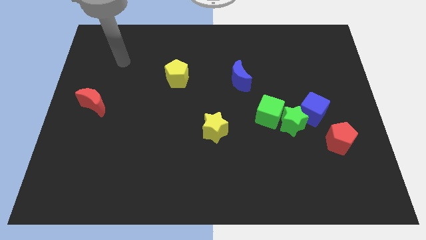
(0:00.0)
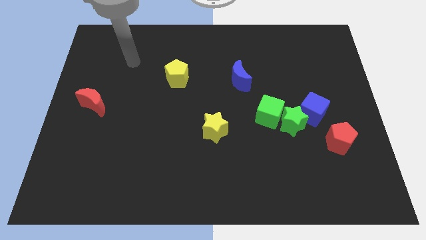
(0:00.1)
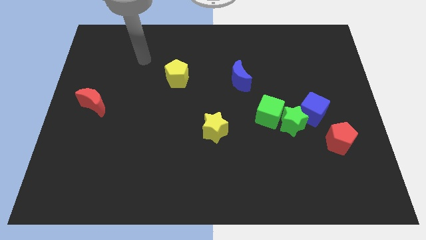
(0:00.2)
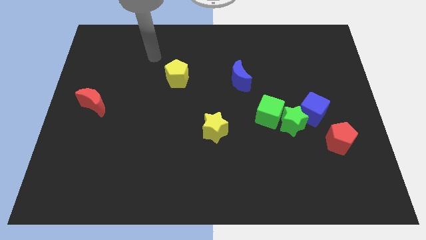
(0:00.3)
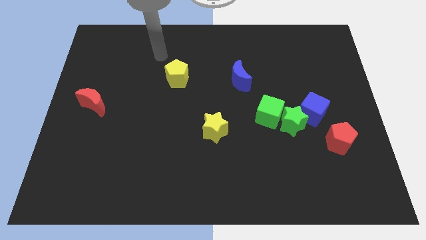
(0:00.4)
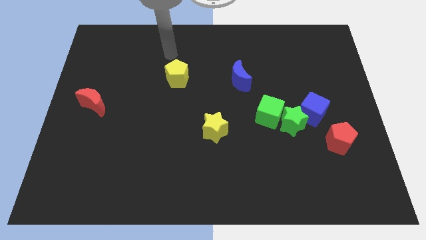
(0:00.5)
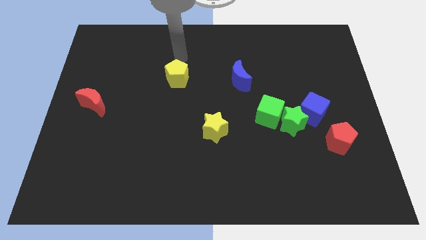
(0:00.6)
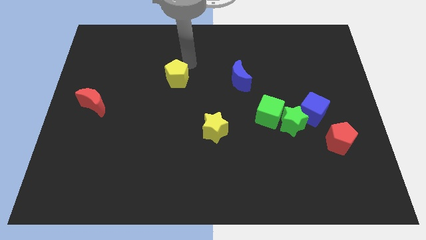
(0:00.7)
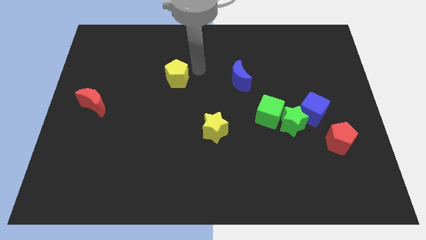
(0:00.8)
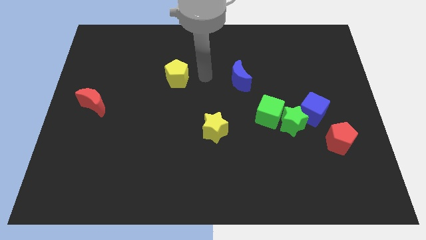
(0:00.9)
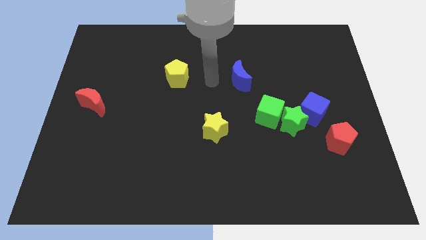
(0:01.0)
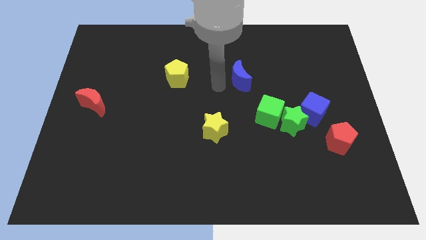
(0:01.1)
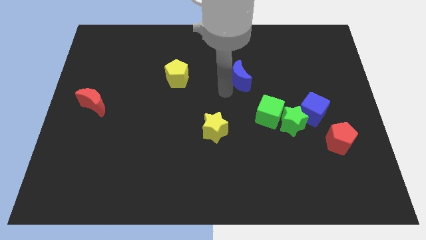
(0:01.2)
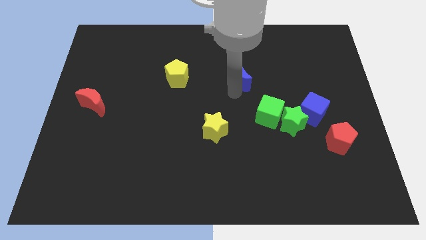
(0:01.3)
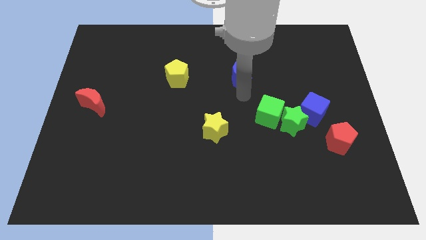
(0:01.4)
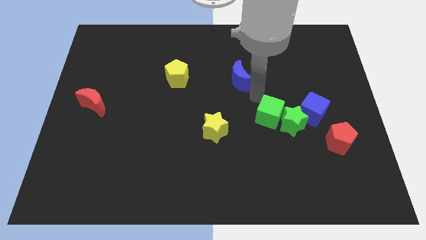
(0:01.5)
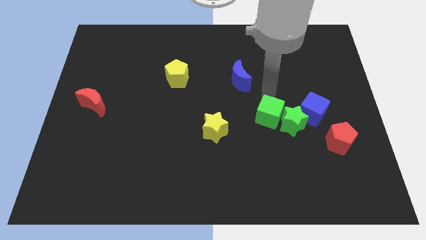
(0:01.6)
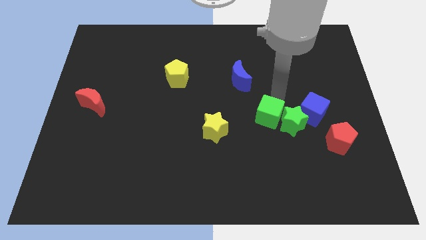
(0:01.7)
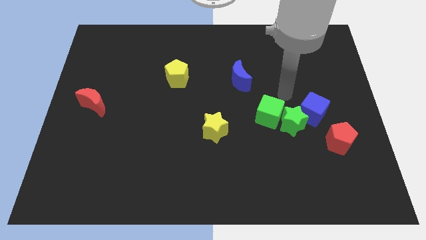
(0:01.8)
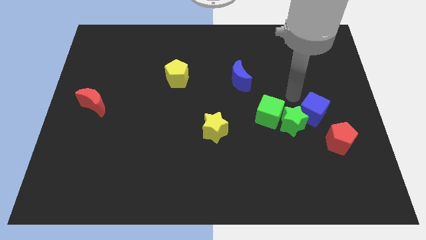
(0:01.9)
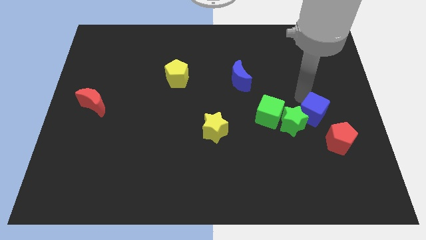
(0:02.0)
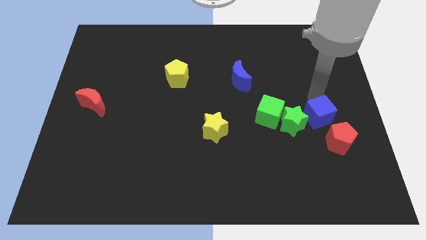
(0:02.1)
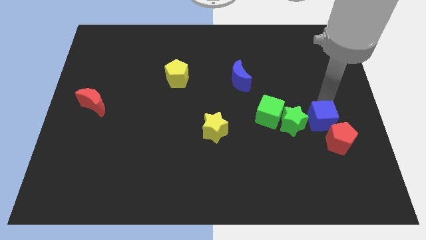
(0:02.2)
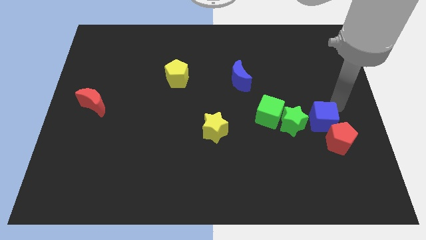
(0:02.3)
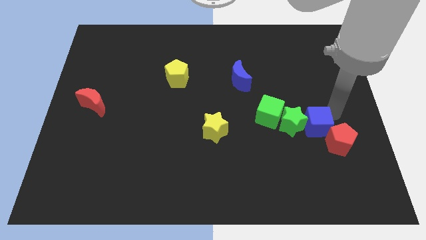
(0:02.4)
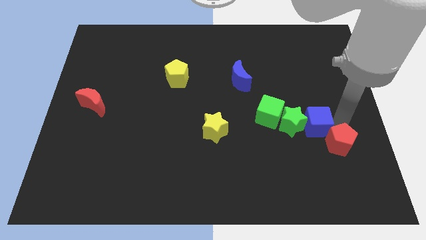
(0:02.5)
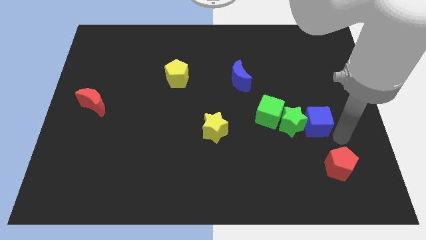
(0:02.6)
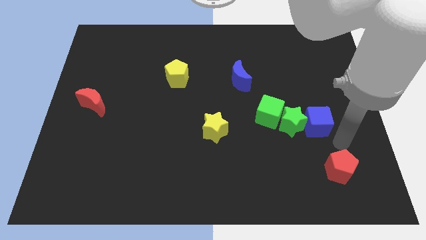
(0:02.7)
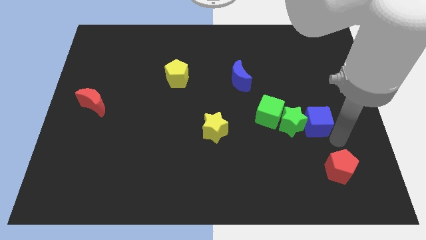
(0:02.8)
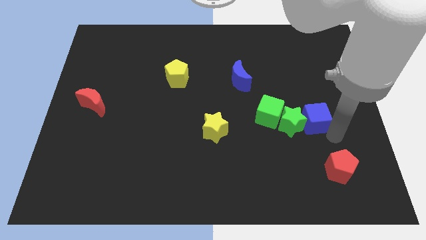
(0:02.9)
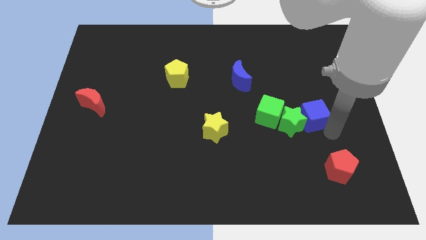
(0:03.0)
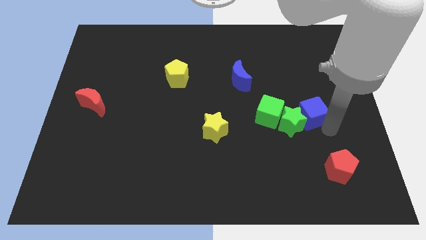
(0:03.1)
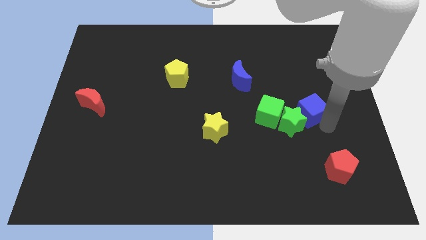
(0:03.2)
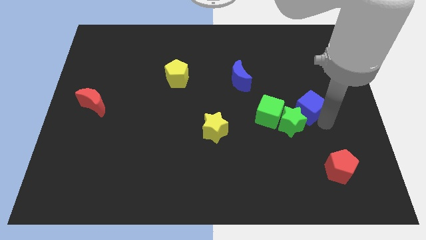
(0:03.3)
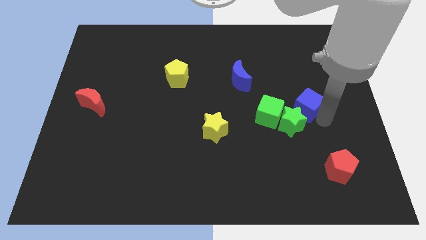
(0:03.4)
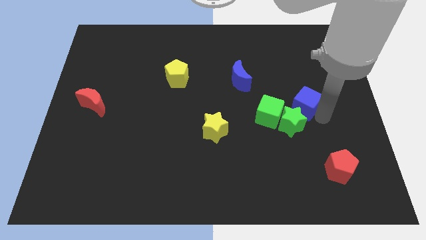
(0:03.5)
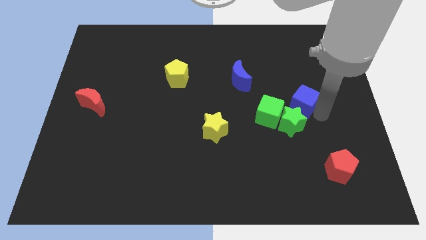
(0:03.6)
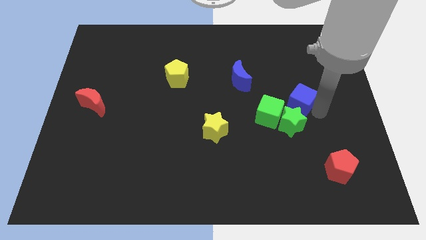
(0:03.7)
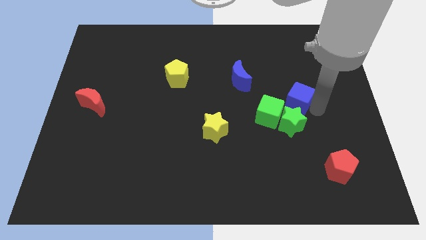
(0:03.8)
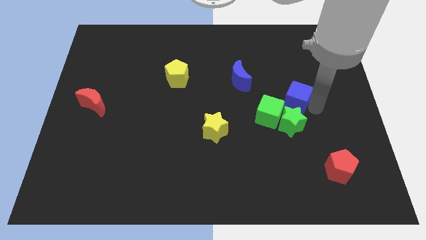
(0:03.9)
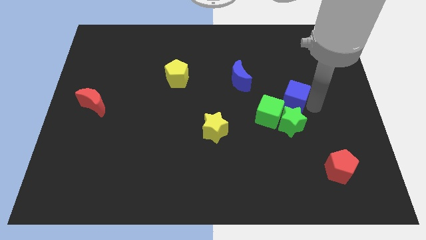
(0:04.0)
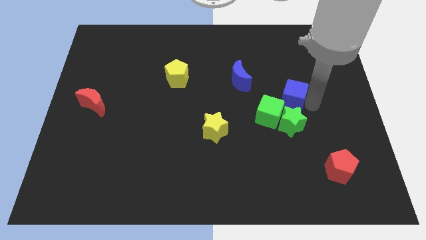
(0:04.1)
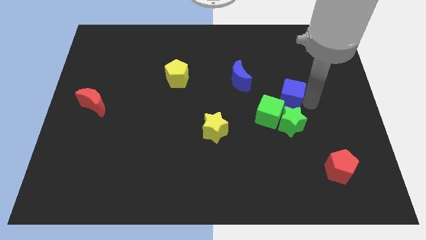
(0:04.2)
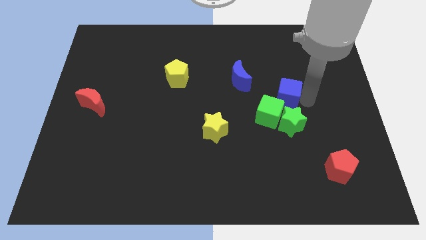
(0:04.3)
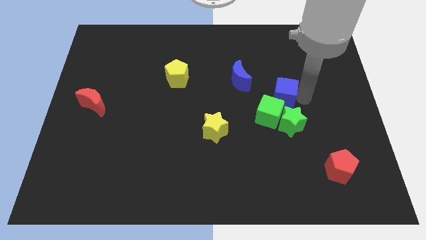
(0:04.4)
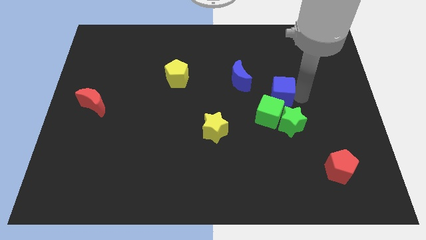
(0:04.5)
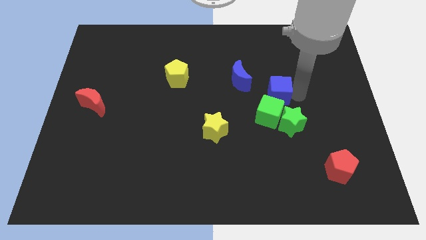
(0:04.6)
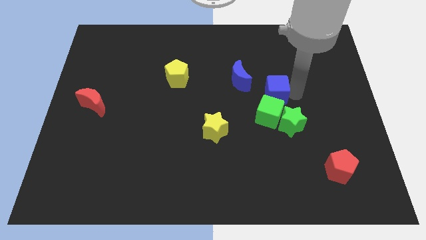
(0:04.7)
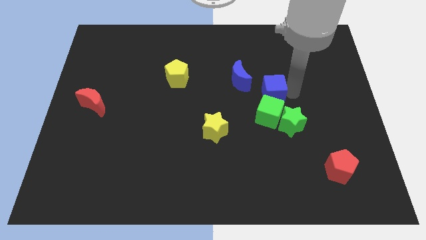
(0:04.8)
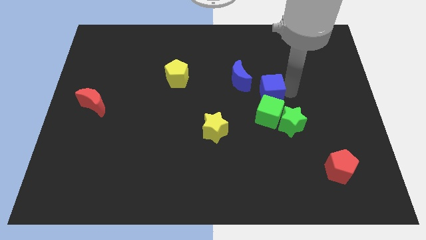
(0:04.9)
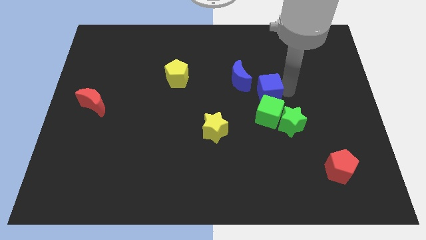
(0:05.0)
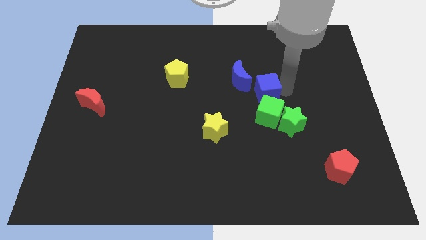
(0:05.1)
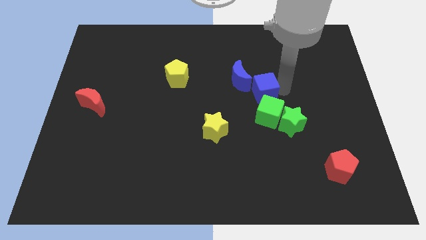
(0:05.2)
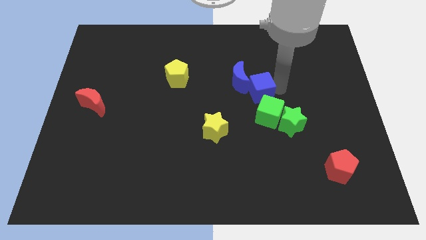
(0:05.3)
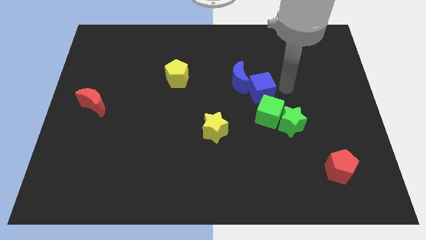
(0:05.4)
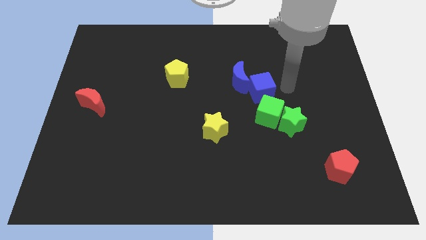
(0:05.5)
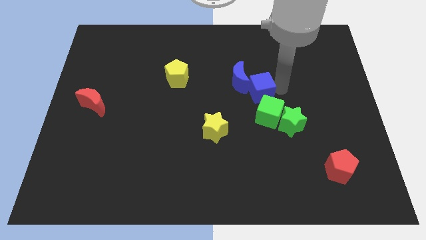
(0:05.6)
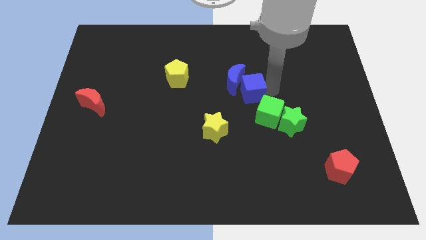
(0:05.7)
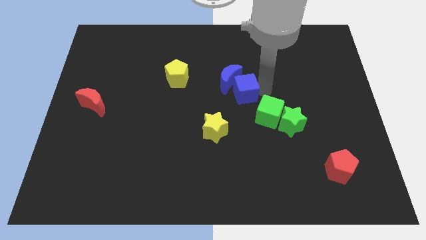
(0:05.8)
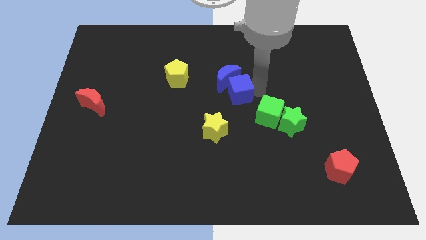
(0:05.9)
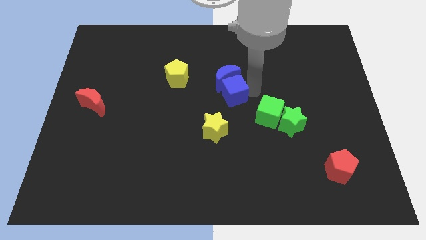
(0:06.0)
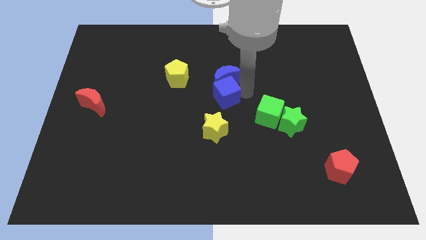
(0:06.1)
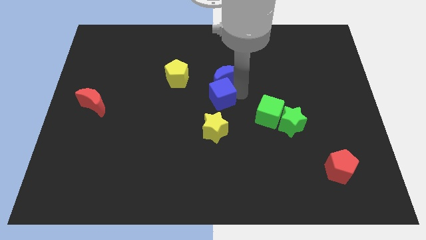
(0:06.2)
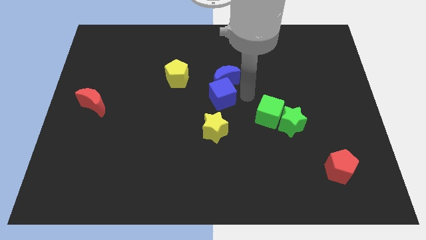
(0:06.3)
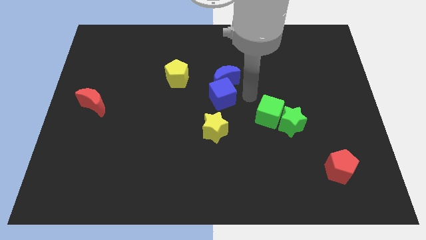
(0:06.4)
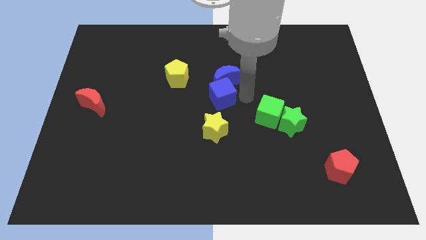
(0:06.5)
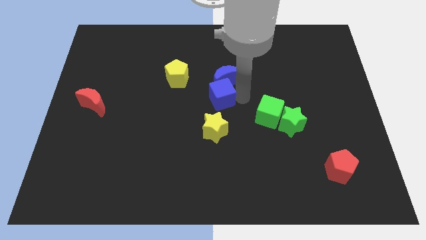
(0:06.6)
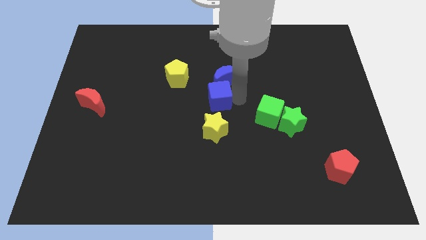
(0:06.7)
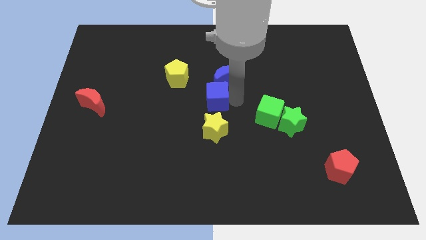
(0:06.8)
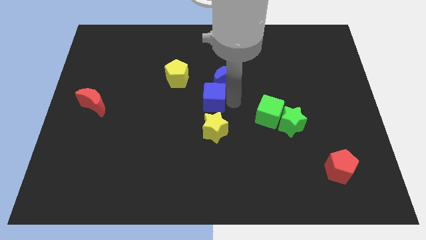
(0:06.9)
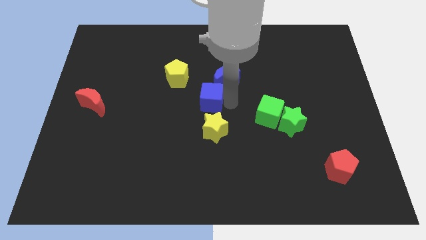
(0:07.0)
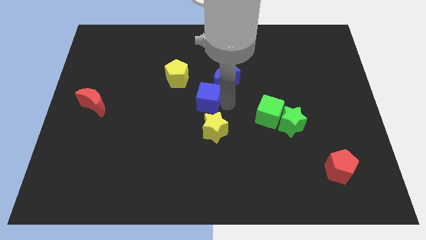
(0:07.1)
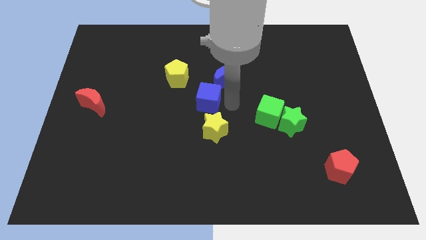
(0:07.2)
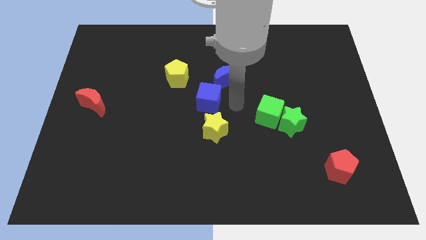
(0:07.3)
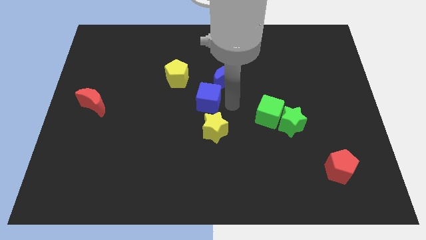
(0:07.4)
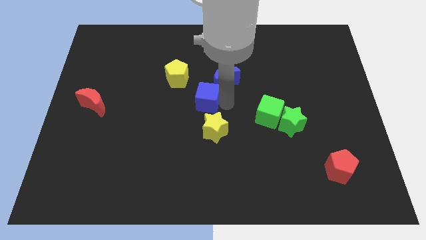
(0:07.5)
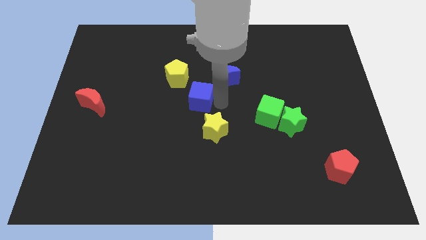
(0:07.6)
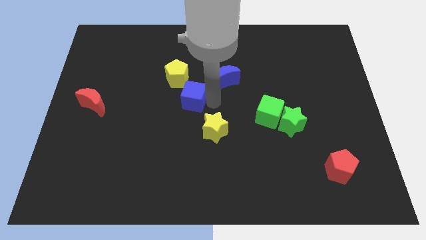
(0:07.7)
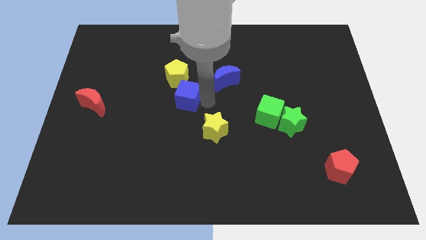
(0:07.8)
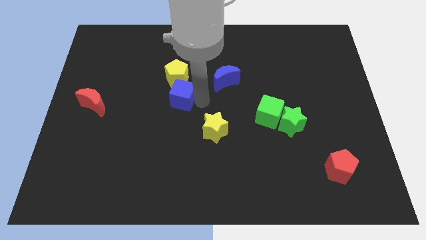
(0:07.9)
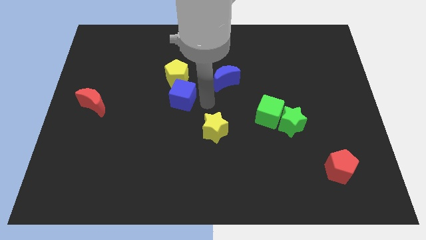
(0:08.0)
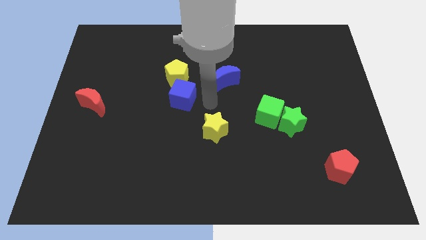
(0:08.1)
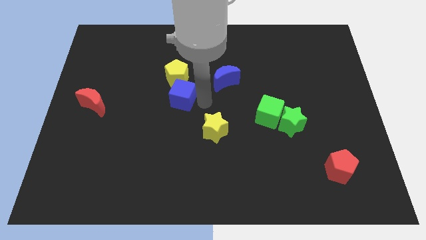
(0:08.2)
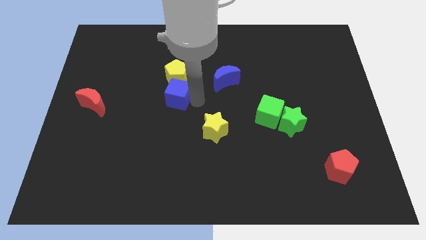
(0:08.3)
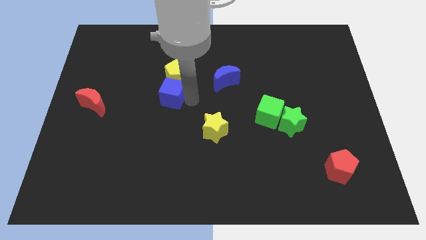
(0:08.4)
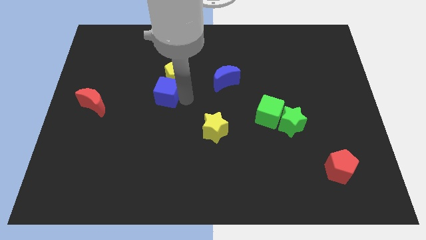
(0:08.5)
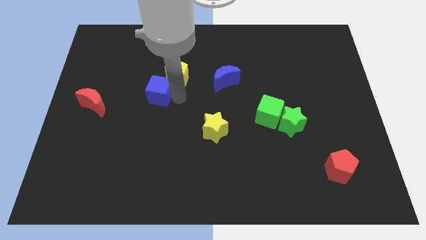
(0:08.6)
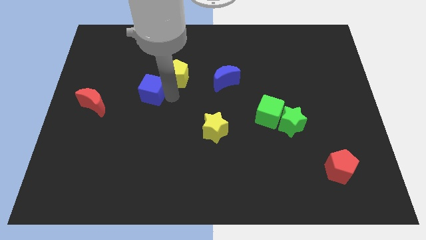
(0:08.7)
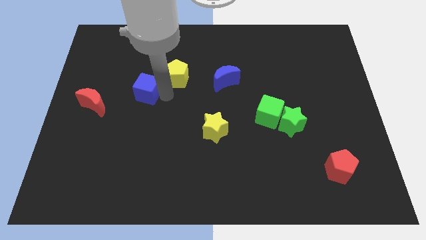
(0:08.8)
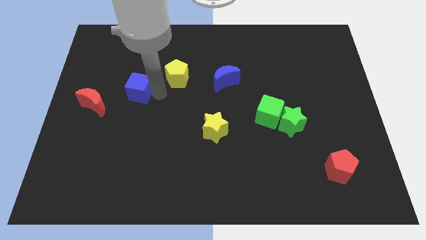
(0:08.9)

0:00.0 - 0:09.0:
push the blue cube diagonally up and to the right of the red moon
